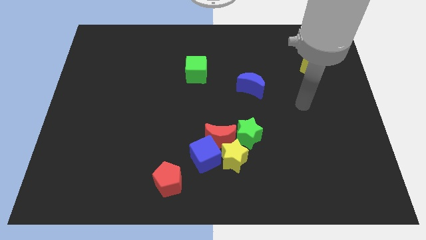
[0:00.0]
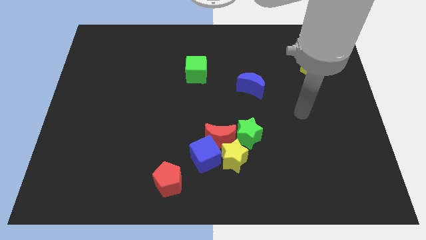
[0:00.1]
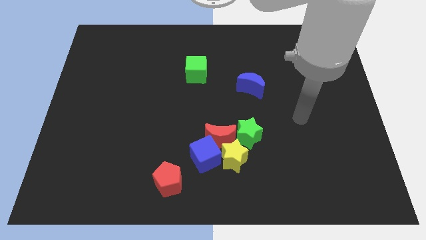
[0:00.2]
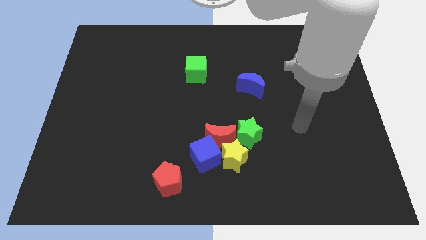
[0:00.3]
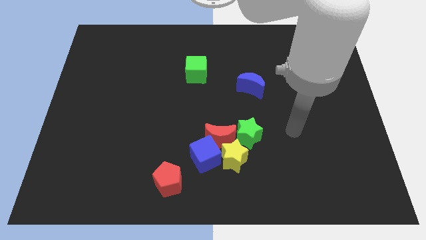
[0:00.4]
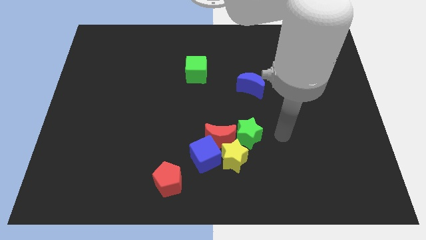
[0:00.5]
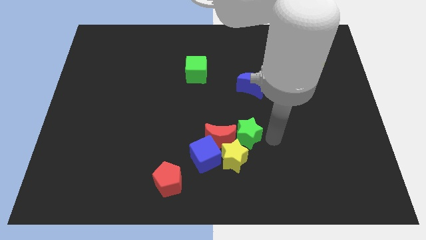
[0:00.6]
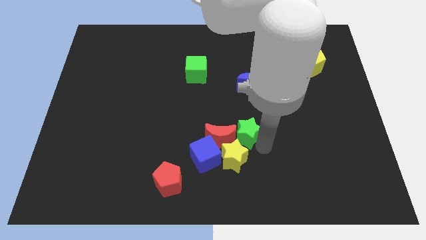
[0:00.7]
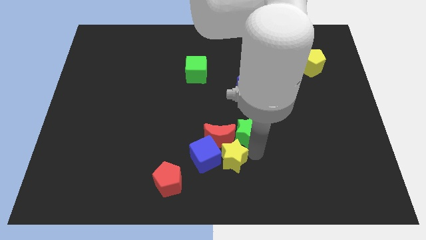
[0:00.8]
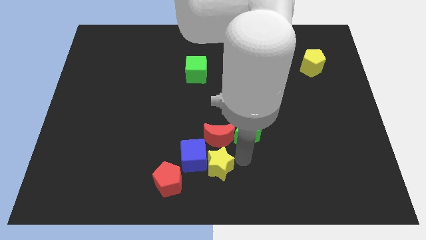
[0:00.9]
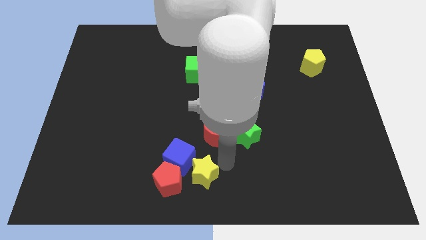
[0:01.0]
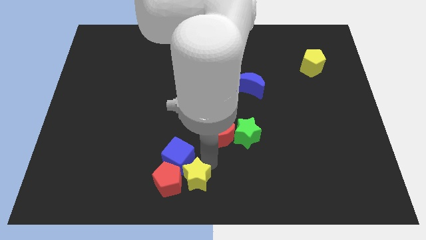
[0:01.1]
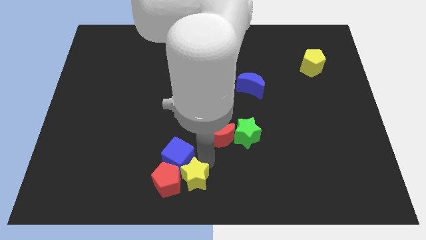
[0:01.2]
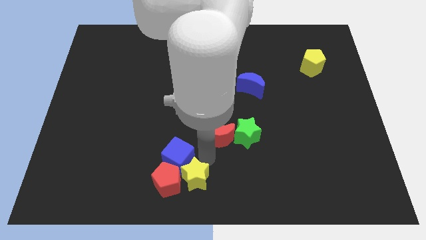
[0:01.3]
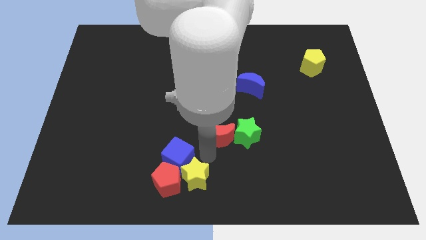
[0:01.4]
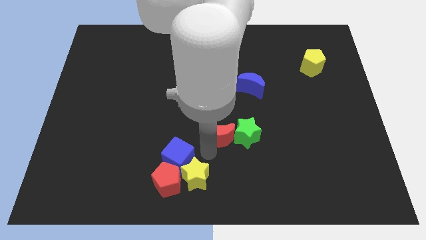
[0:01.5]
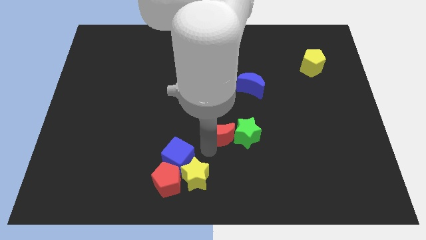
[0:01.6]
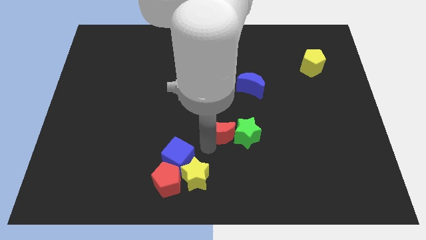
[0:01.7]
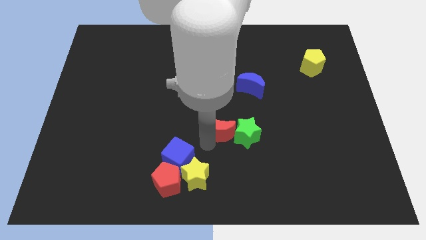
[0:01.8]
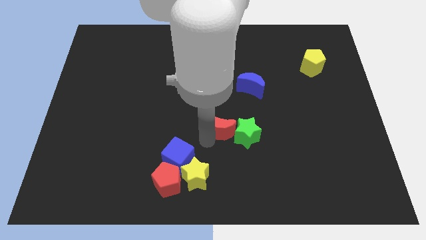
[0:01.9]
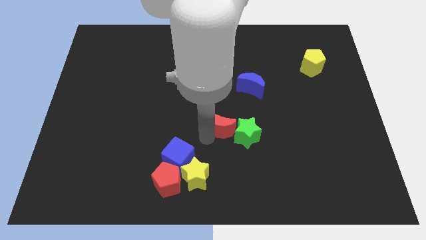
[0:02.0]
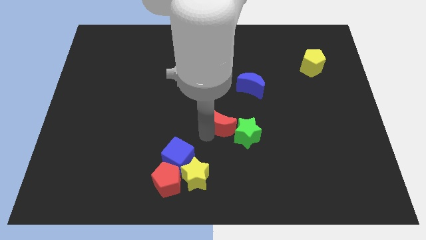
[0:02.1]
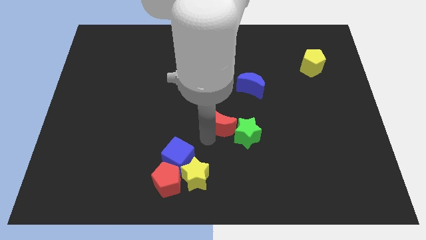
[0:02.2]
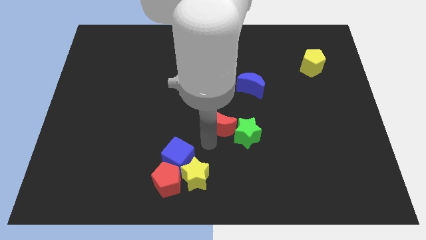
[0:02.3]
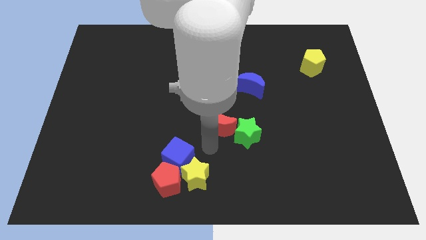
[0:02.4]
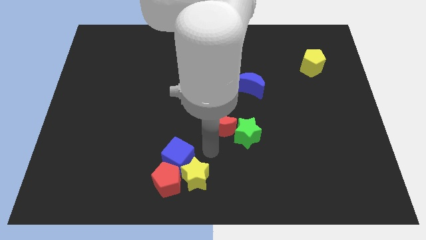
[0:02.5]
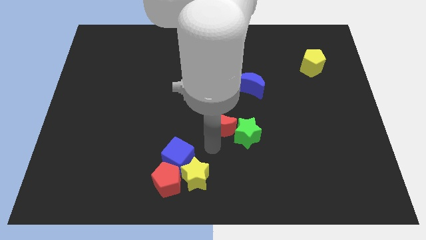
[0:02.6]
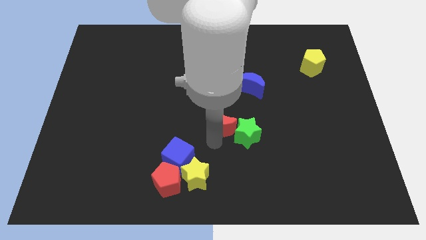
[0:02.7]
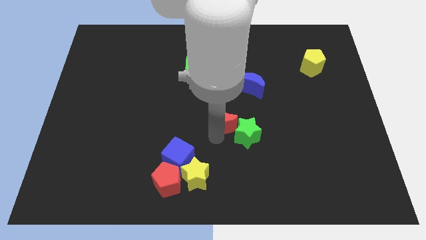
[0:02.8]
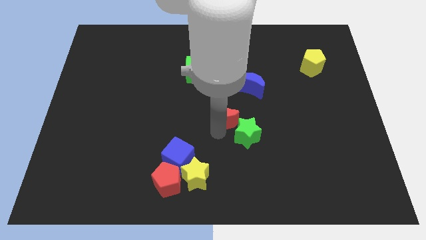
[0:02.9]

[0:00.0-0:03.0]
pull the red moon apart from the blue cube, yellow star, and green star

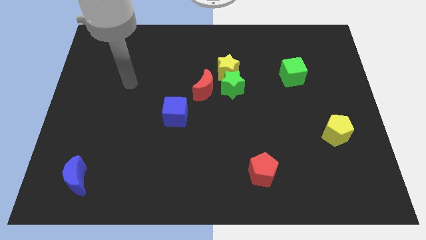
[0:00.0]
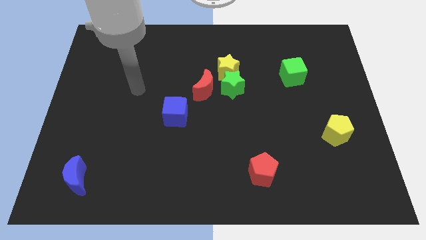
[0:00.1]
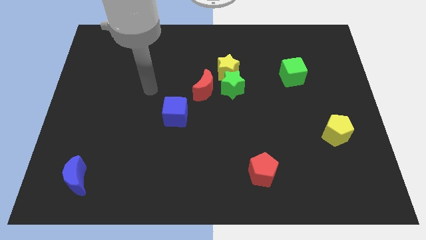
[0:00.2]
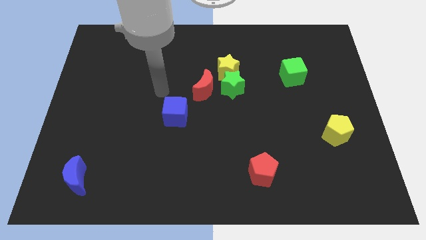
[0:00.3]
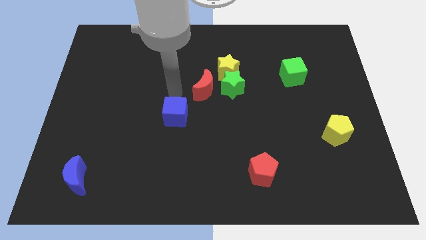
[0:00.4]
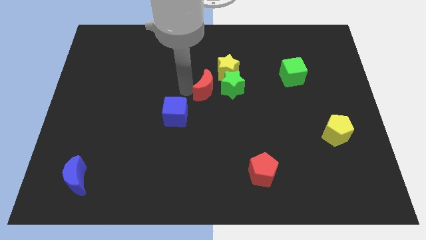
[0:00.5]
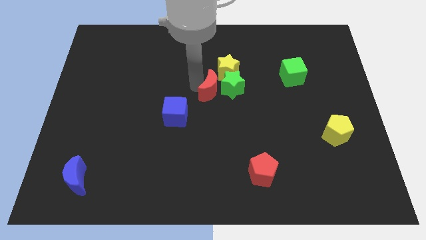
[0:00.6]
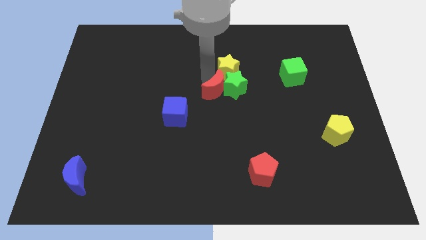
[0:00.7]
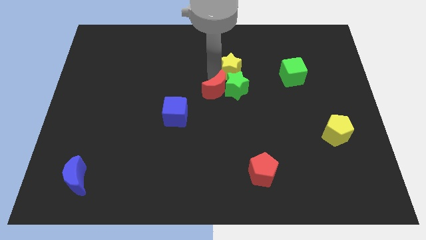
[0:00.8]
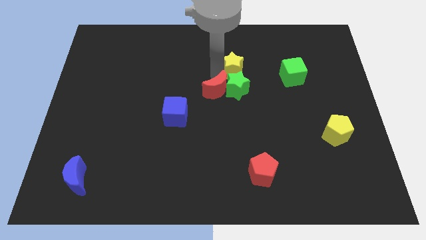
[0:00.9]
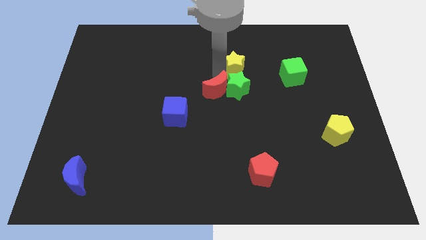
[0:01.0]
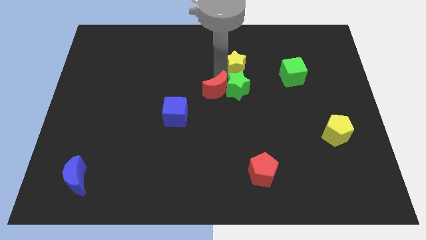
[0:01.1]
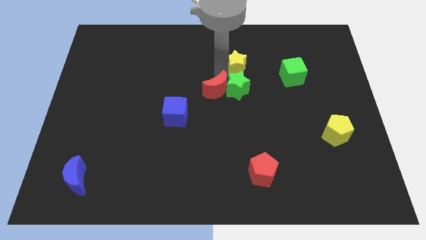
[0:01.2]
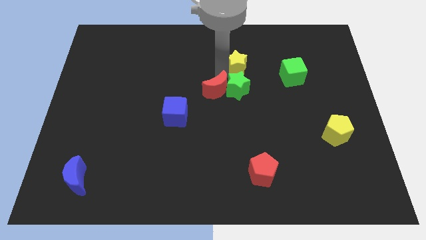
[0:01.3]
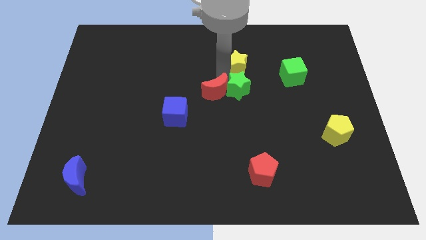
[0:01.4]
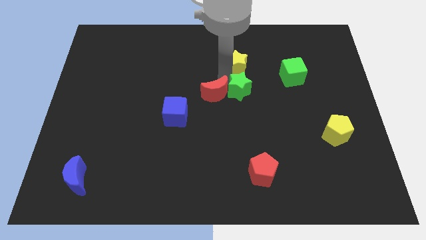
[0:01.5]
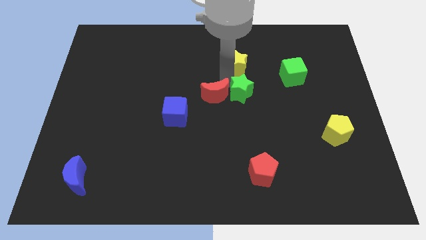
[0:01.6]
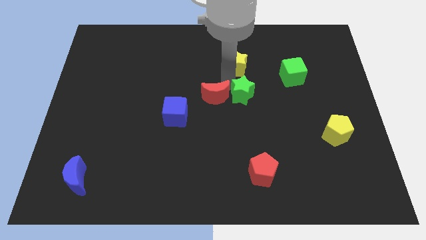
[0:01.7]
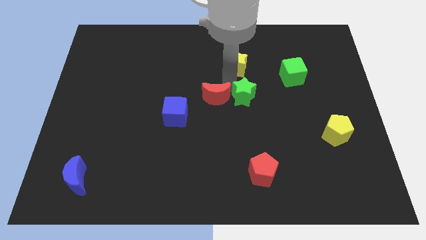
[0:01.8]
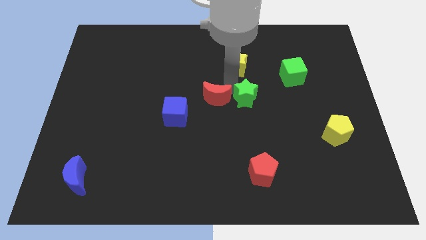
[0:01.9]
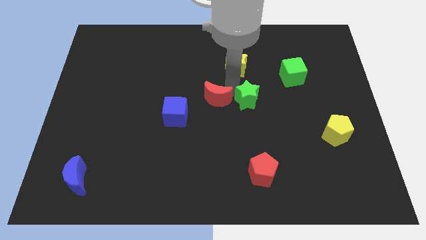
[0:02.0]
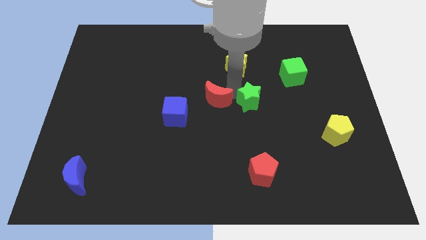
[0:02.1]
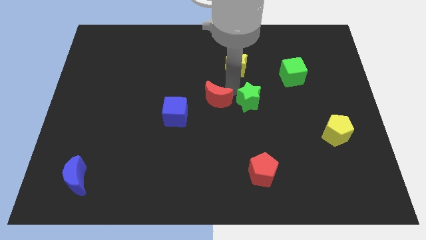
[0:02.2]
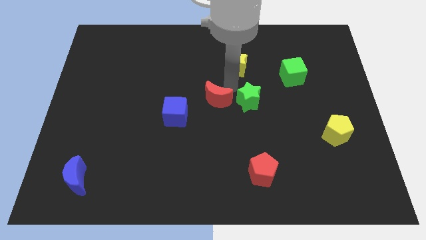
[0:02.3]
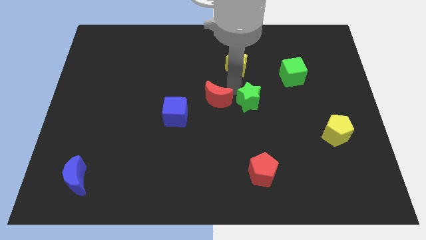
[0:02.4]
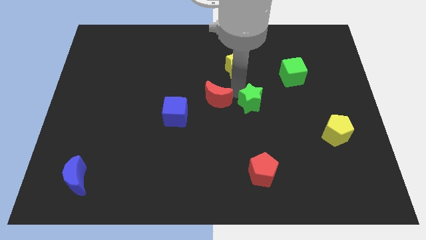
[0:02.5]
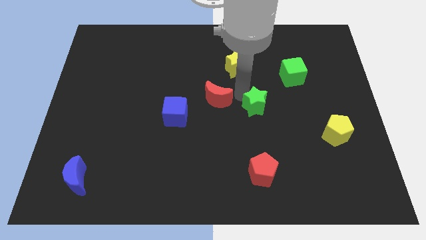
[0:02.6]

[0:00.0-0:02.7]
pull the green star apart from the yellow star and red moon

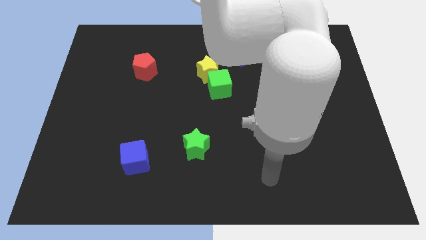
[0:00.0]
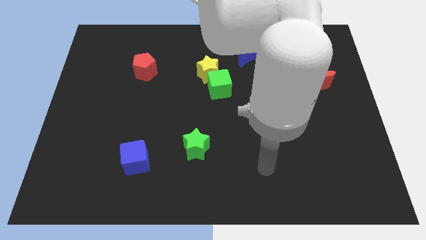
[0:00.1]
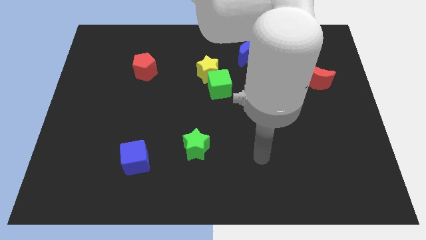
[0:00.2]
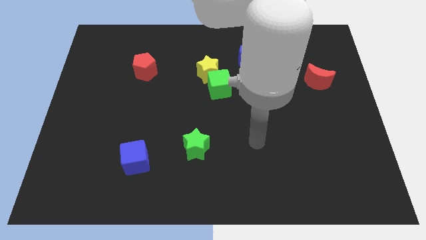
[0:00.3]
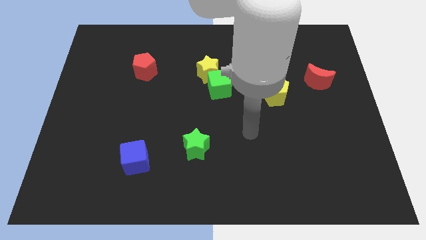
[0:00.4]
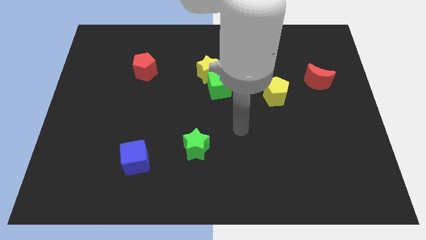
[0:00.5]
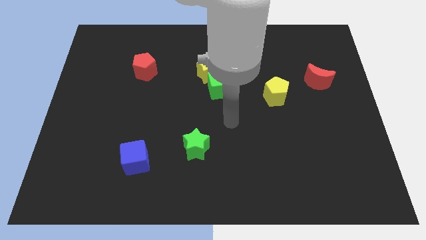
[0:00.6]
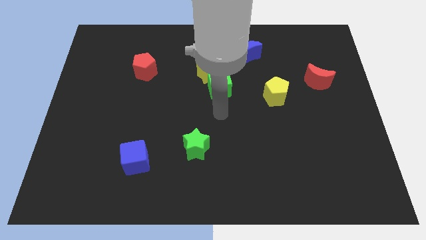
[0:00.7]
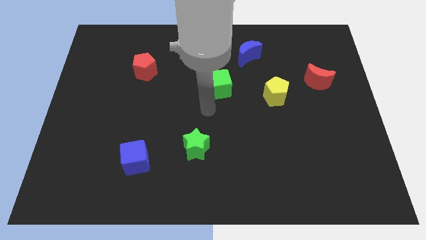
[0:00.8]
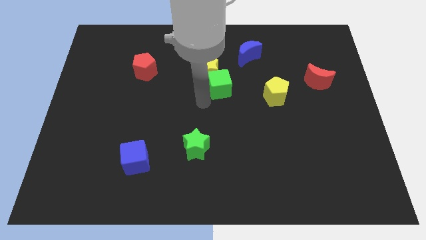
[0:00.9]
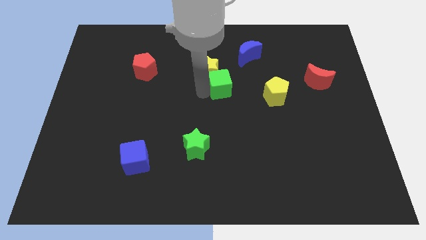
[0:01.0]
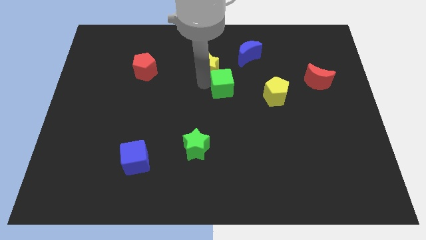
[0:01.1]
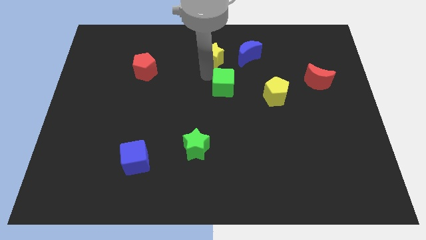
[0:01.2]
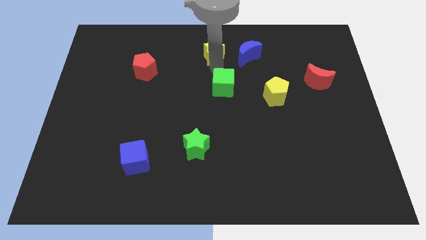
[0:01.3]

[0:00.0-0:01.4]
pull the green cube apart from the yellow star

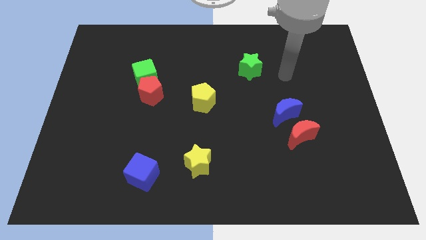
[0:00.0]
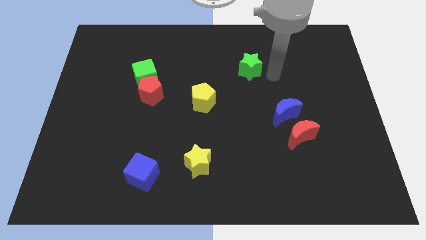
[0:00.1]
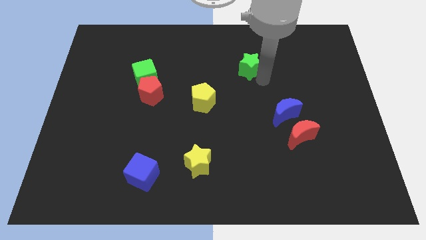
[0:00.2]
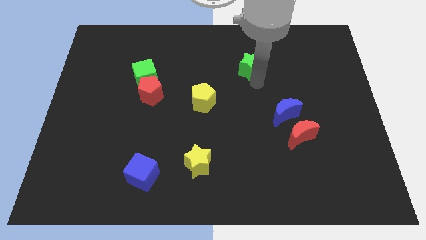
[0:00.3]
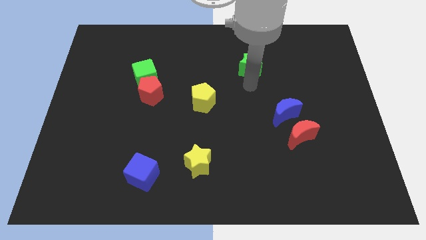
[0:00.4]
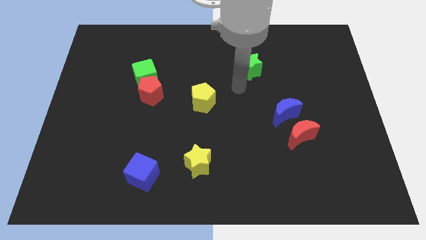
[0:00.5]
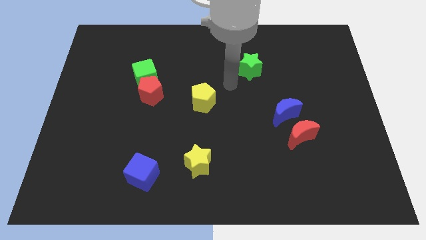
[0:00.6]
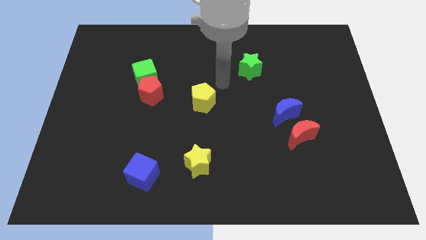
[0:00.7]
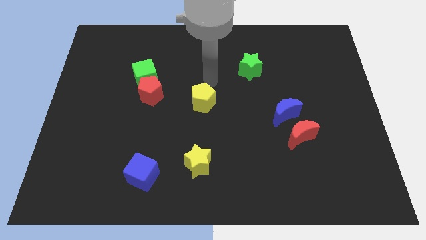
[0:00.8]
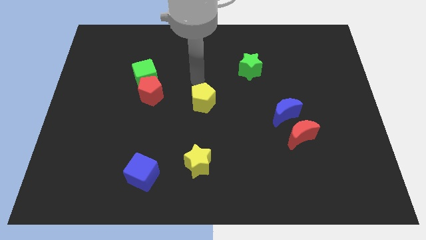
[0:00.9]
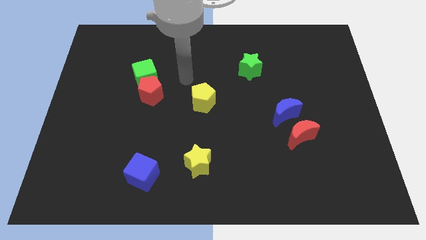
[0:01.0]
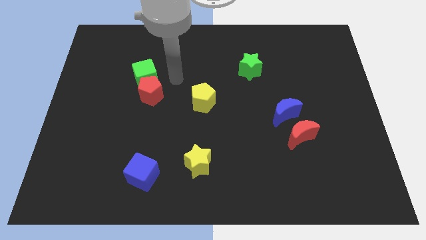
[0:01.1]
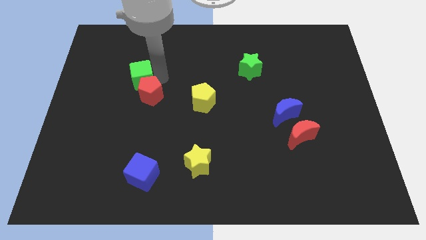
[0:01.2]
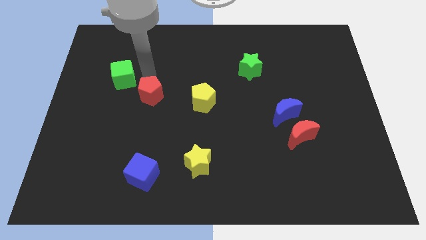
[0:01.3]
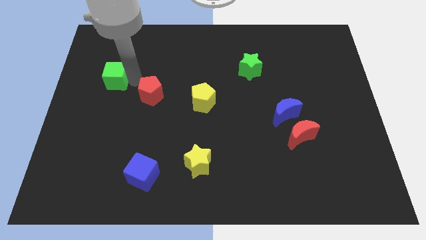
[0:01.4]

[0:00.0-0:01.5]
move the red pentagon away from the green cube

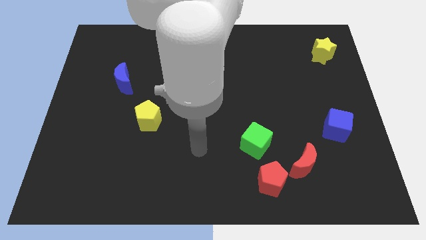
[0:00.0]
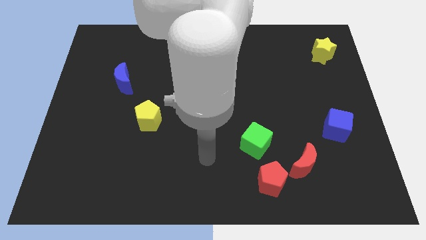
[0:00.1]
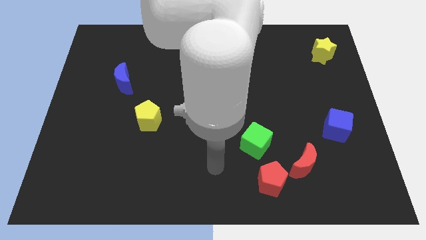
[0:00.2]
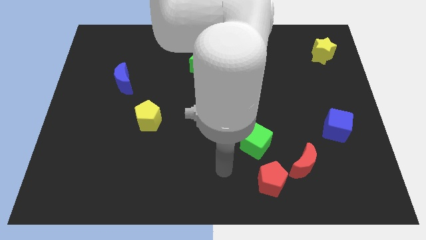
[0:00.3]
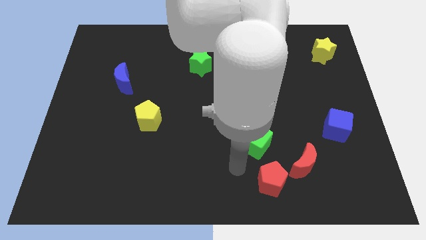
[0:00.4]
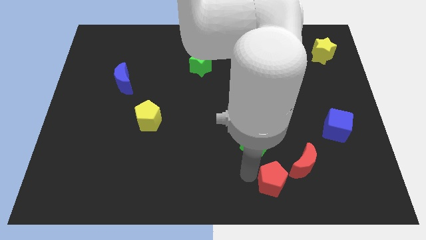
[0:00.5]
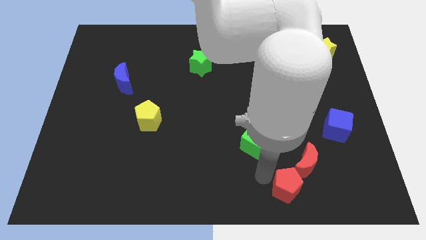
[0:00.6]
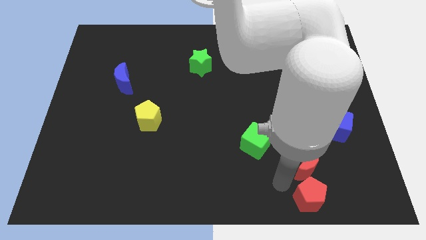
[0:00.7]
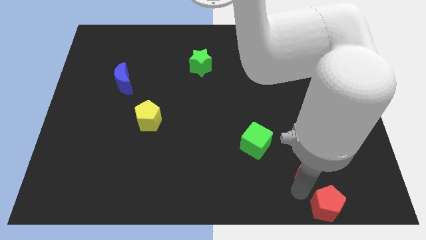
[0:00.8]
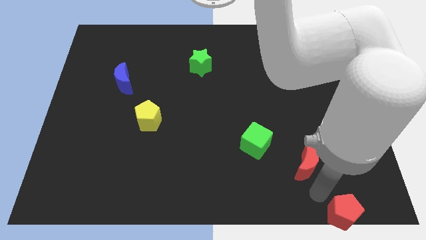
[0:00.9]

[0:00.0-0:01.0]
move the red moon away from the red pentagon
